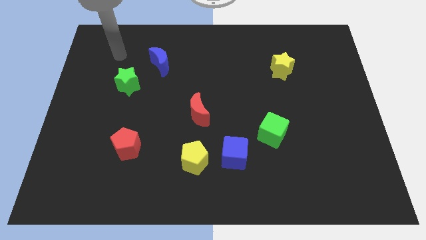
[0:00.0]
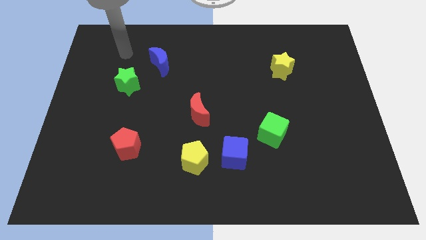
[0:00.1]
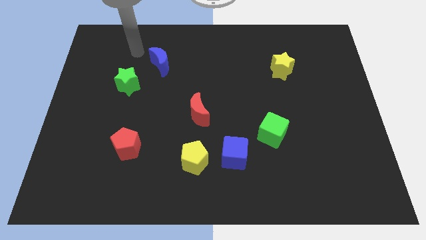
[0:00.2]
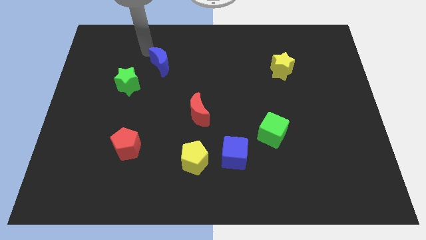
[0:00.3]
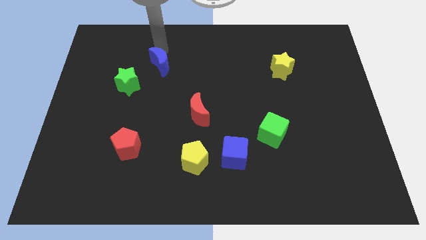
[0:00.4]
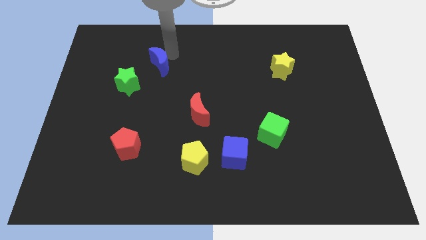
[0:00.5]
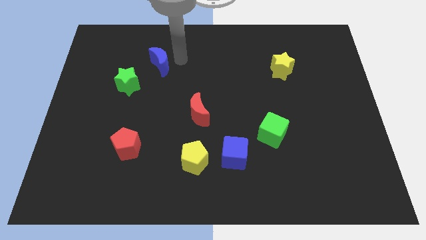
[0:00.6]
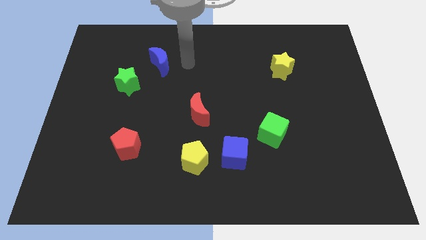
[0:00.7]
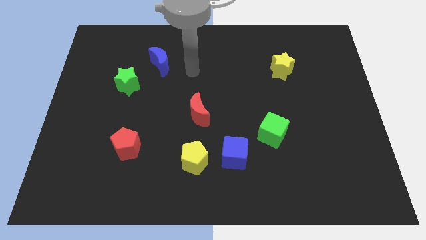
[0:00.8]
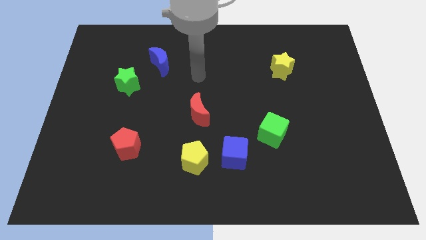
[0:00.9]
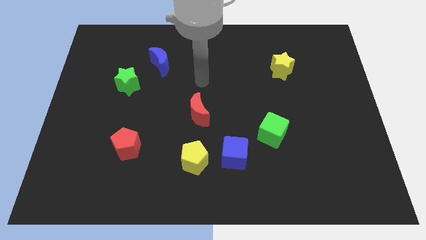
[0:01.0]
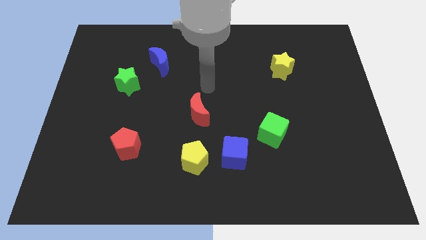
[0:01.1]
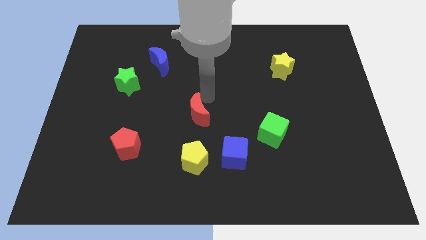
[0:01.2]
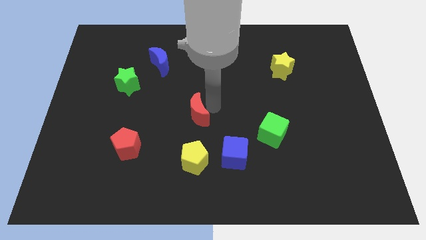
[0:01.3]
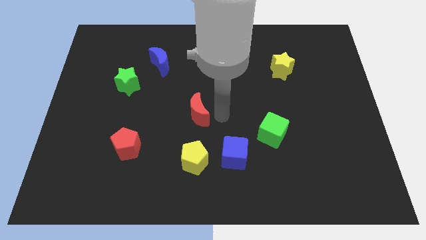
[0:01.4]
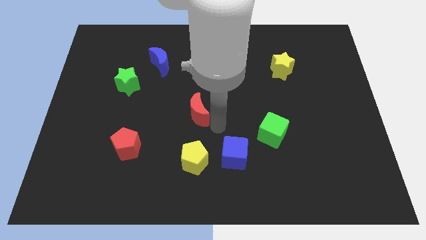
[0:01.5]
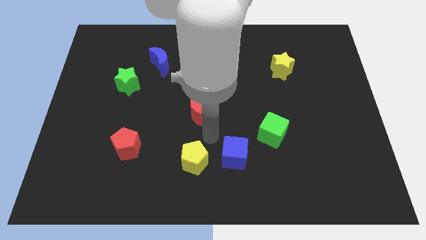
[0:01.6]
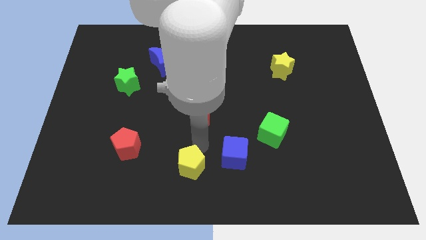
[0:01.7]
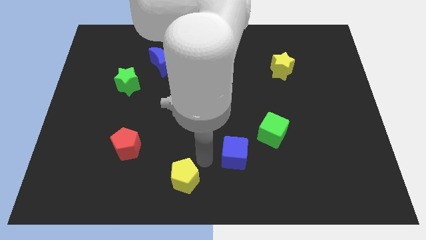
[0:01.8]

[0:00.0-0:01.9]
pull the blue cube apart from the yellow pentagon

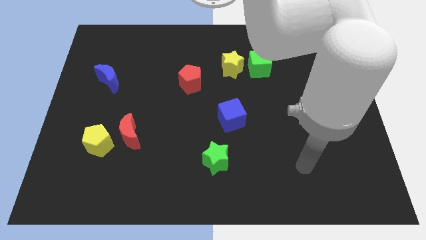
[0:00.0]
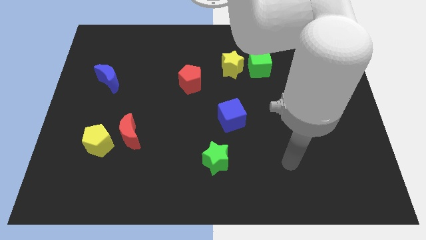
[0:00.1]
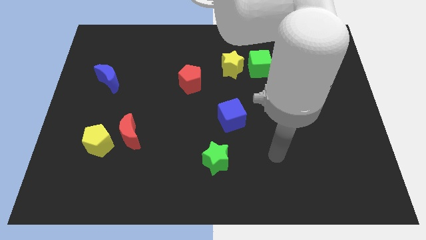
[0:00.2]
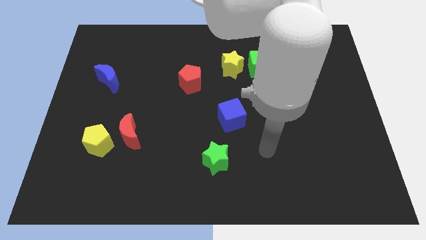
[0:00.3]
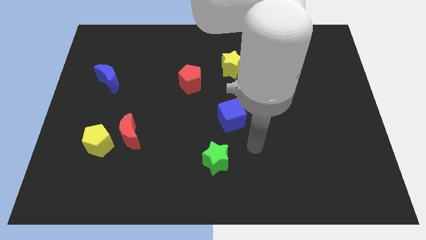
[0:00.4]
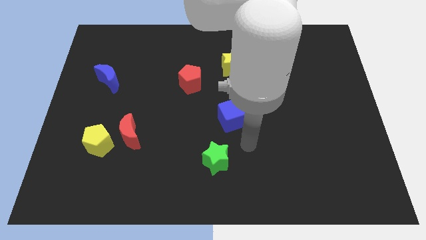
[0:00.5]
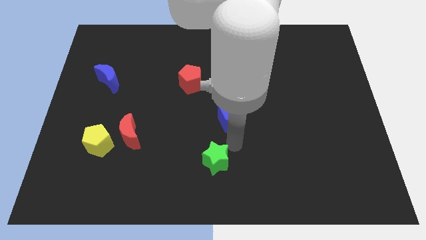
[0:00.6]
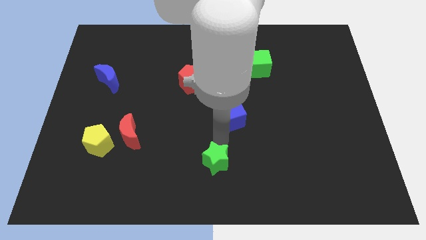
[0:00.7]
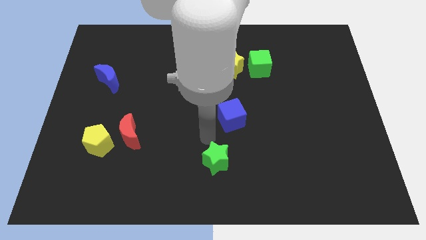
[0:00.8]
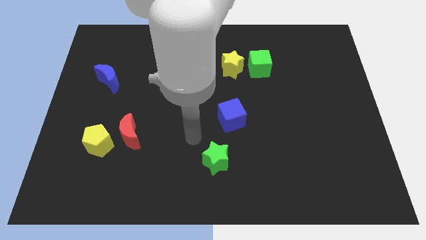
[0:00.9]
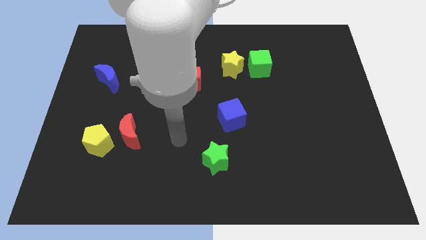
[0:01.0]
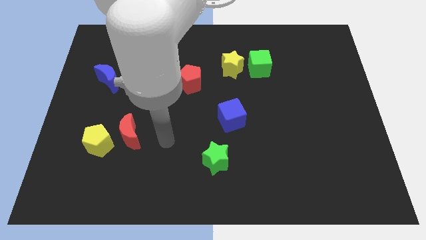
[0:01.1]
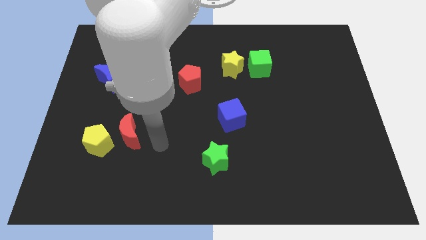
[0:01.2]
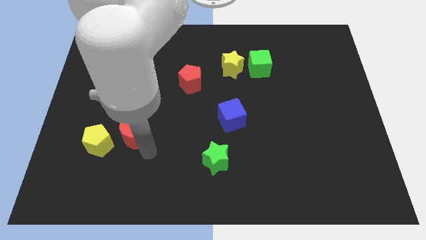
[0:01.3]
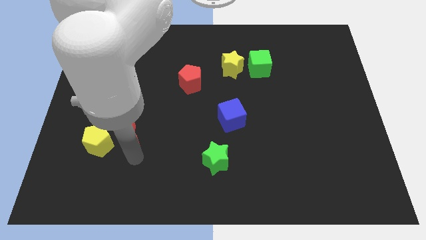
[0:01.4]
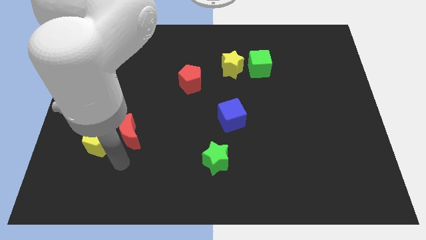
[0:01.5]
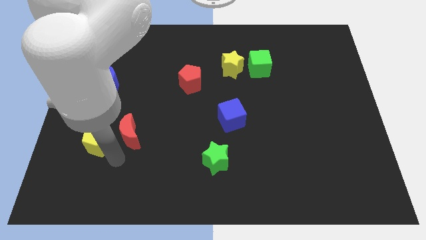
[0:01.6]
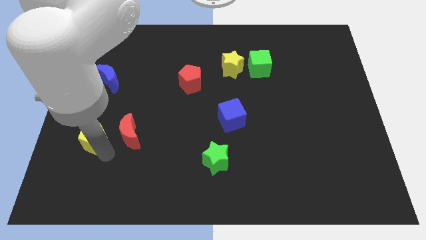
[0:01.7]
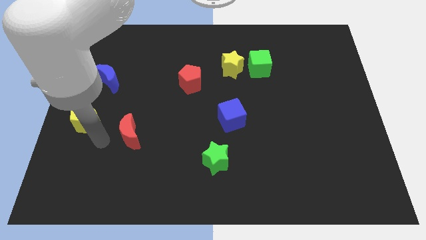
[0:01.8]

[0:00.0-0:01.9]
move the red moon away from the yellow pentagon

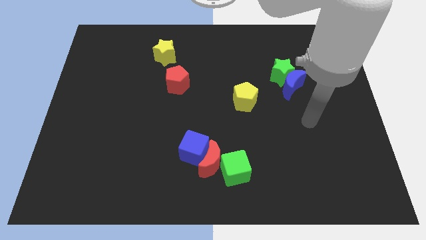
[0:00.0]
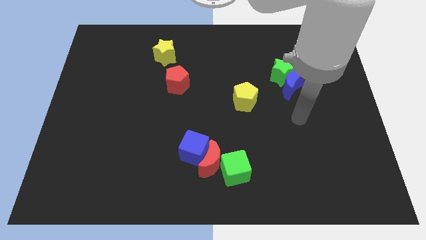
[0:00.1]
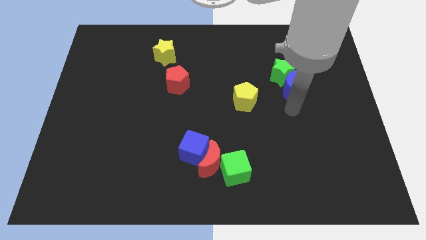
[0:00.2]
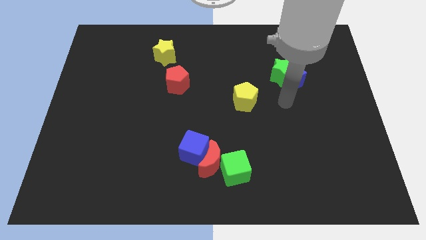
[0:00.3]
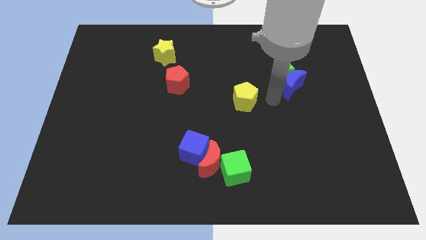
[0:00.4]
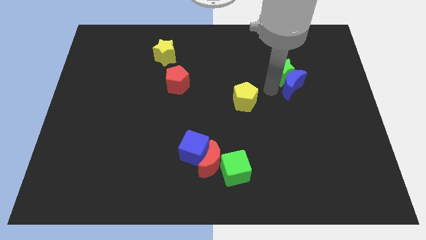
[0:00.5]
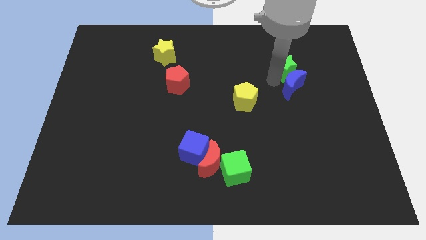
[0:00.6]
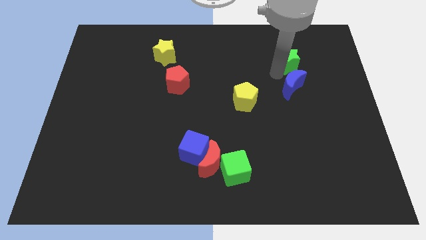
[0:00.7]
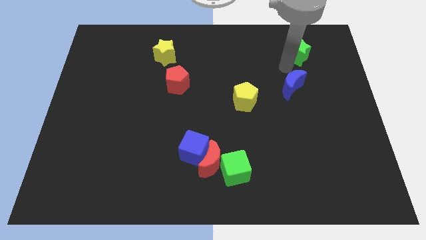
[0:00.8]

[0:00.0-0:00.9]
pull the blue moon apart from the green star

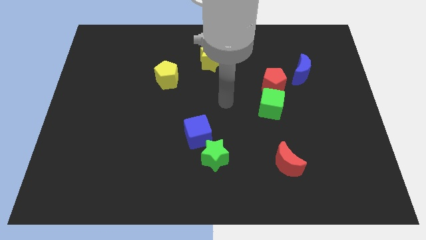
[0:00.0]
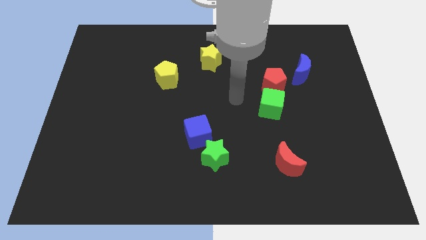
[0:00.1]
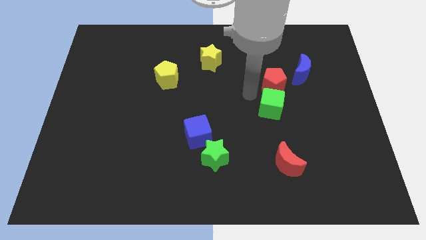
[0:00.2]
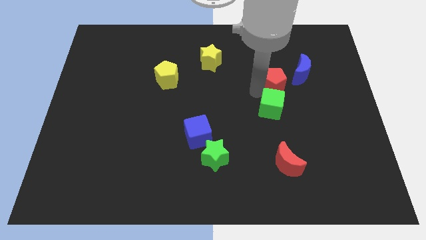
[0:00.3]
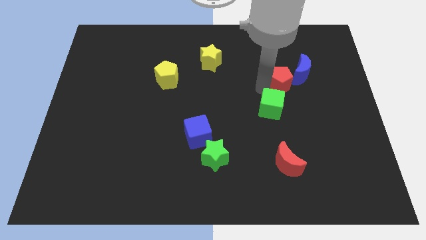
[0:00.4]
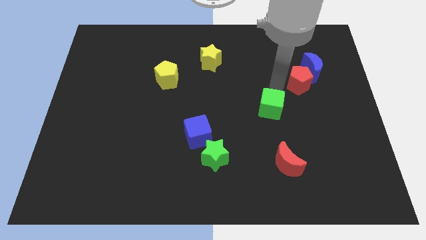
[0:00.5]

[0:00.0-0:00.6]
separate the green cube from the red pentagon

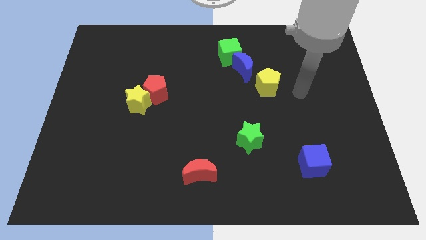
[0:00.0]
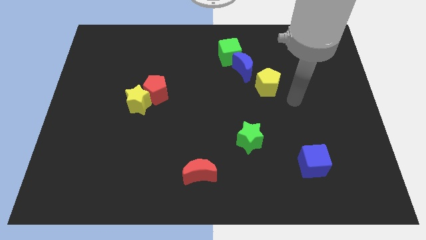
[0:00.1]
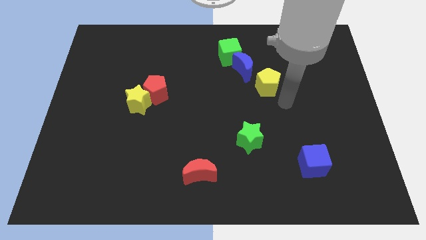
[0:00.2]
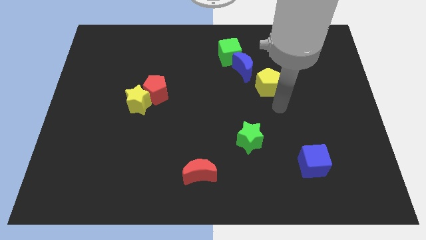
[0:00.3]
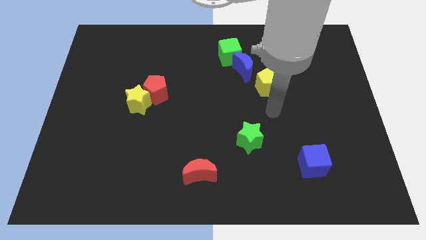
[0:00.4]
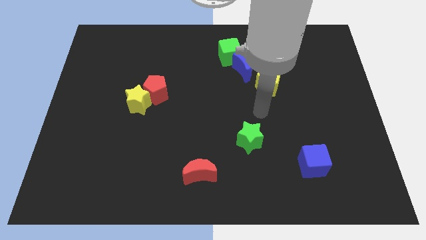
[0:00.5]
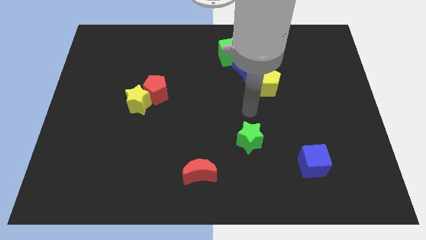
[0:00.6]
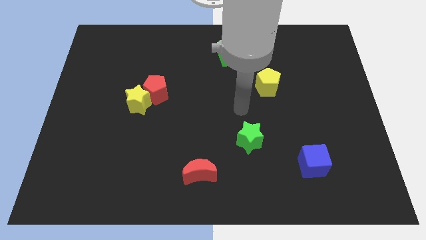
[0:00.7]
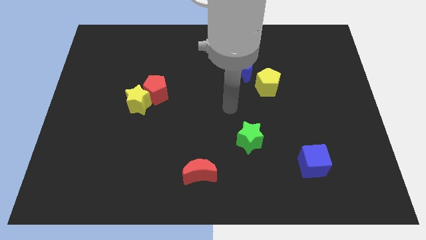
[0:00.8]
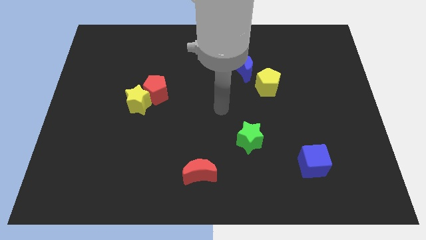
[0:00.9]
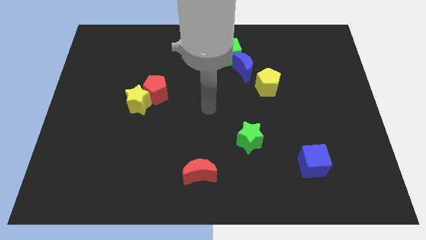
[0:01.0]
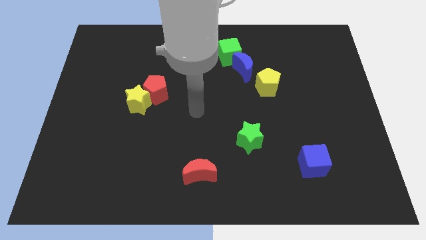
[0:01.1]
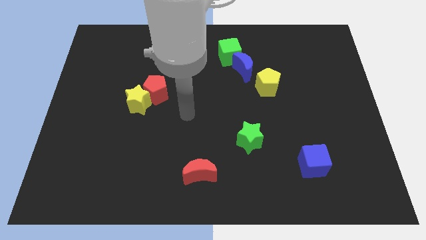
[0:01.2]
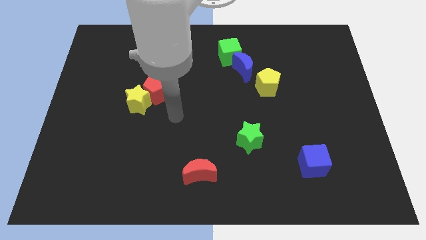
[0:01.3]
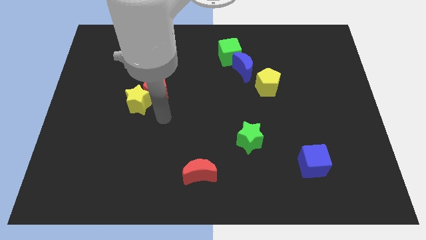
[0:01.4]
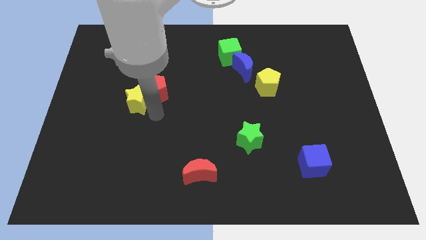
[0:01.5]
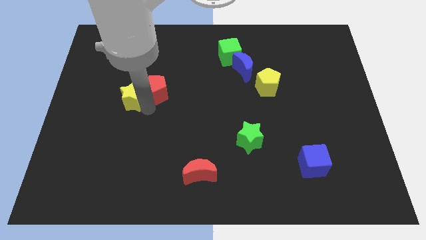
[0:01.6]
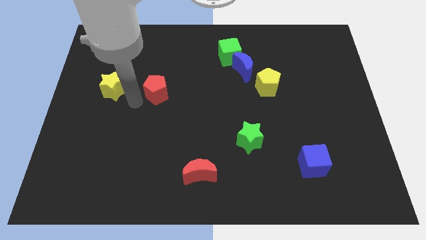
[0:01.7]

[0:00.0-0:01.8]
pull the red pentagon apart from the yellow star

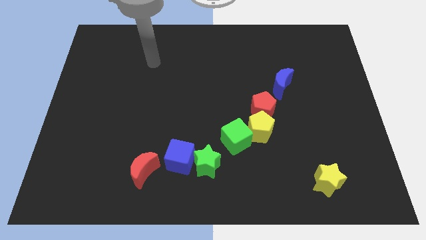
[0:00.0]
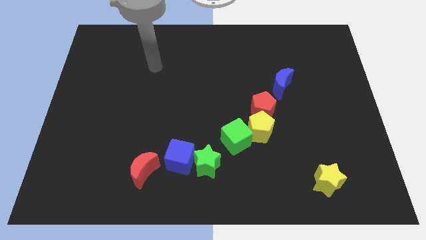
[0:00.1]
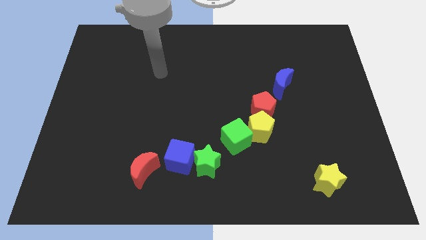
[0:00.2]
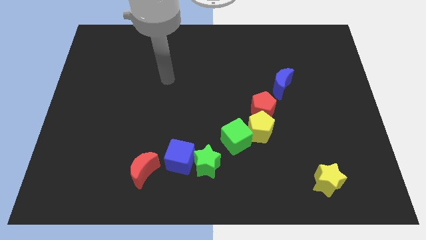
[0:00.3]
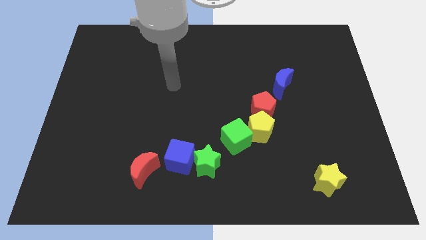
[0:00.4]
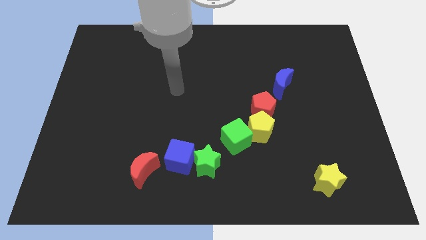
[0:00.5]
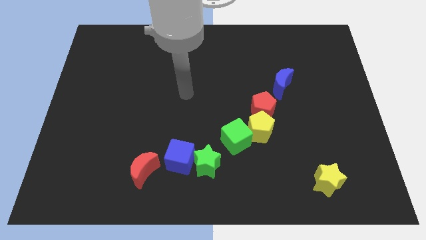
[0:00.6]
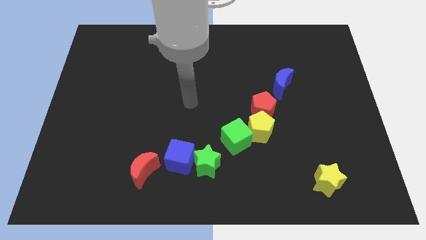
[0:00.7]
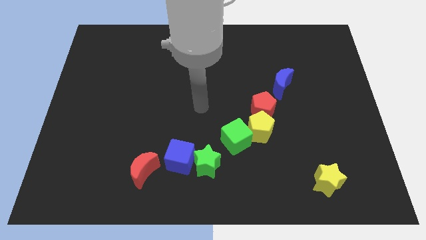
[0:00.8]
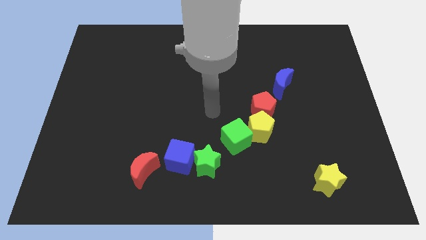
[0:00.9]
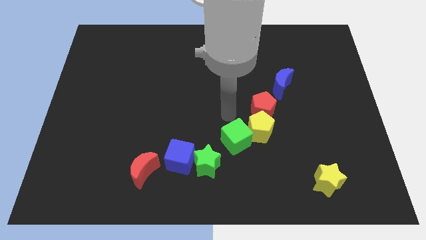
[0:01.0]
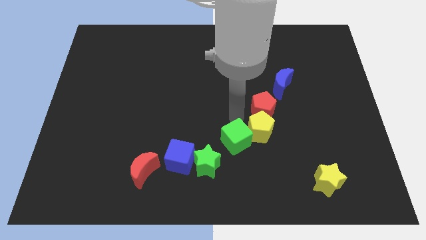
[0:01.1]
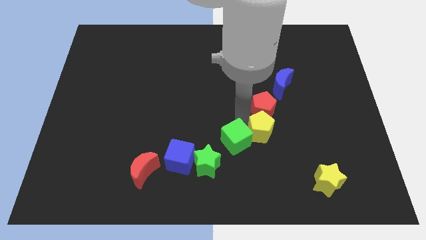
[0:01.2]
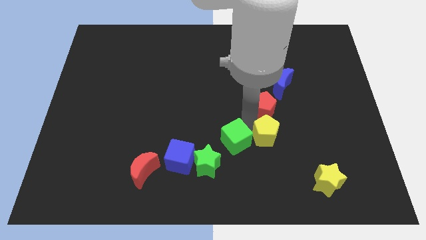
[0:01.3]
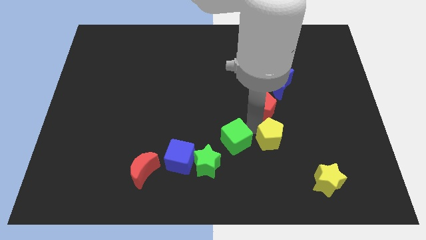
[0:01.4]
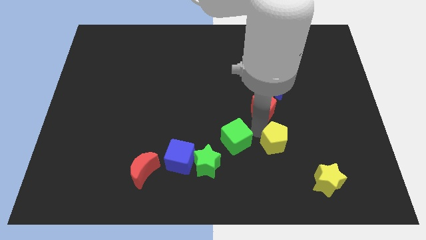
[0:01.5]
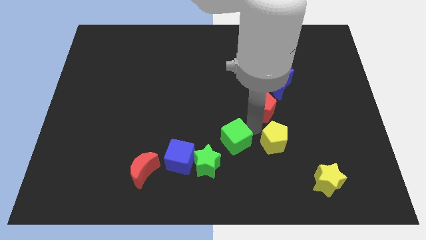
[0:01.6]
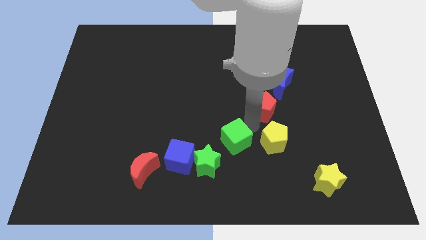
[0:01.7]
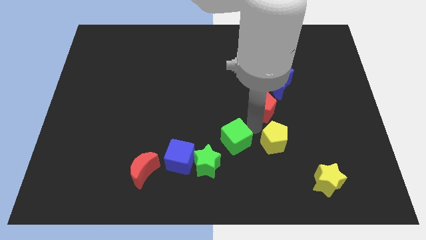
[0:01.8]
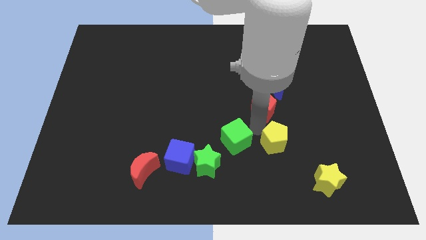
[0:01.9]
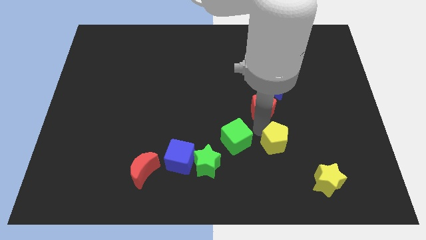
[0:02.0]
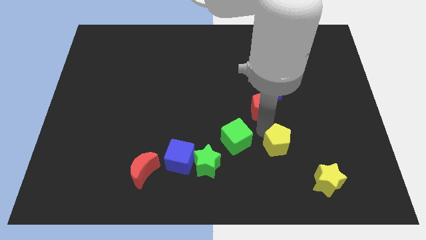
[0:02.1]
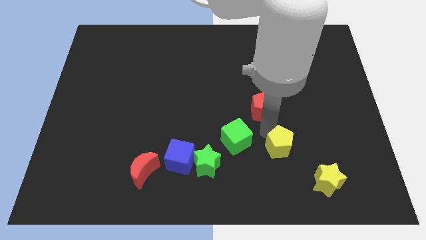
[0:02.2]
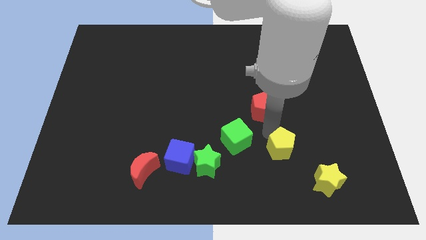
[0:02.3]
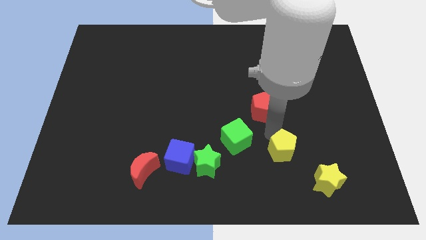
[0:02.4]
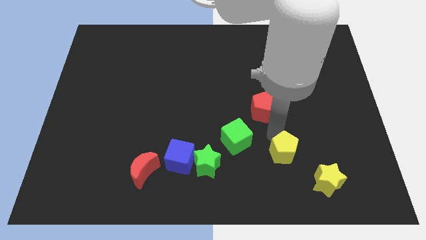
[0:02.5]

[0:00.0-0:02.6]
separate the yellow pentagon from the red pentagon and green cube
